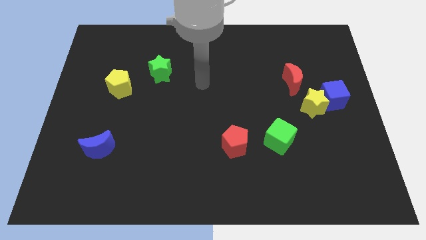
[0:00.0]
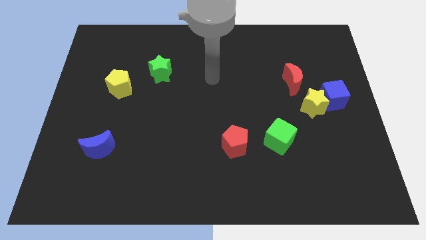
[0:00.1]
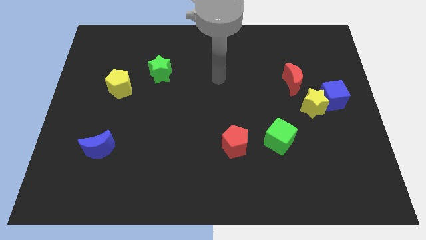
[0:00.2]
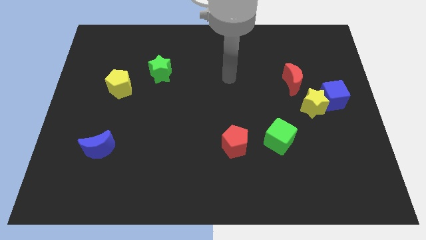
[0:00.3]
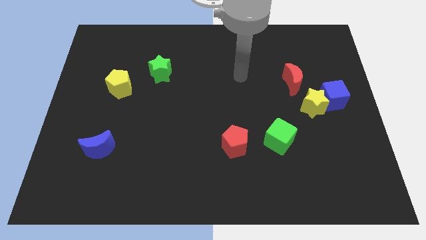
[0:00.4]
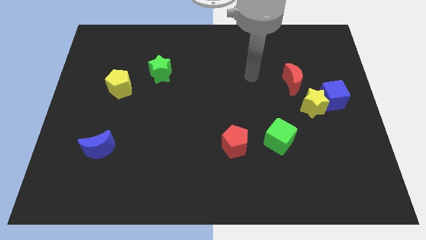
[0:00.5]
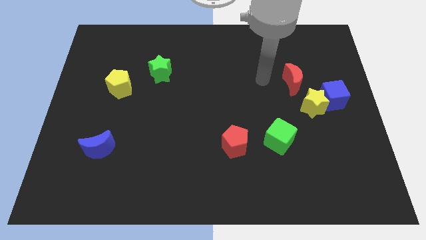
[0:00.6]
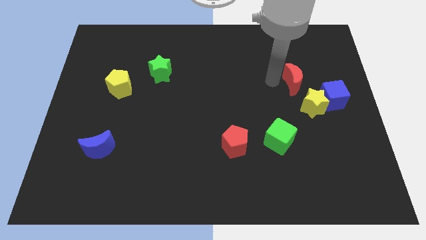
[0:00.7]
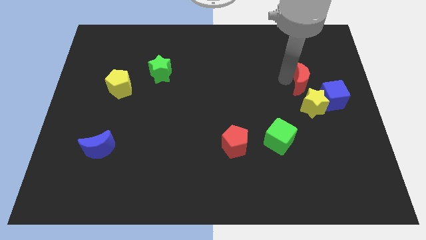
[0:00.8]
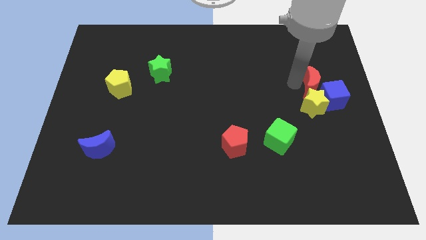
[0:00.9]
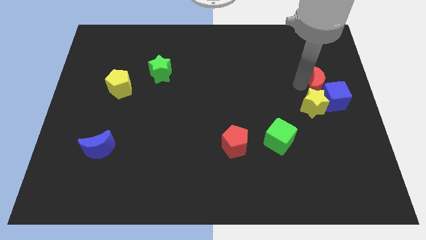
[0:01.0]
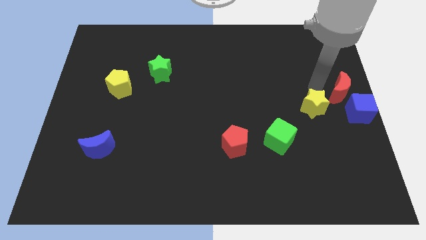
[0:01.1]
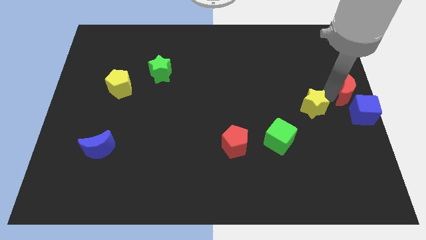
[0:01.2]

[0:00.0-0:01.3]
separate the yellow star from the blue cube and red moon

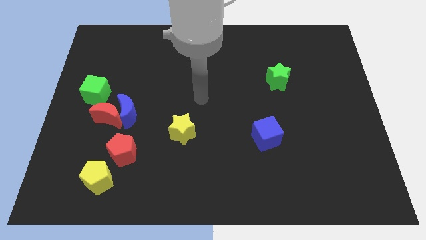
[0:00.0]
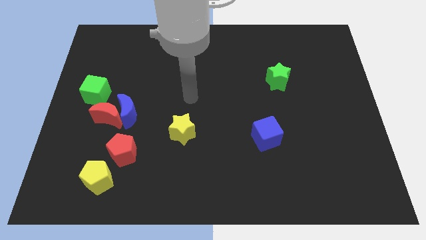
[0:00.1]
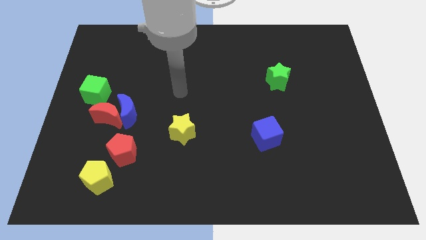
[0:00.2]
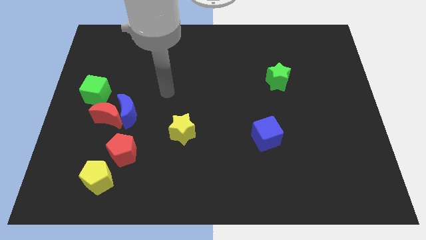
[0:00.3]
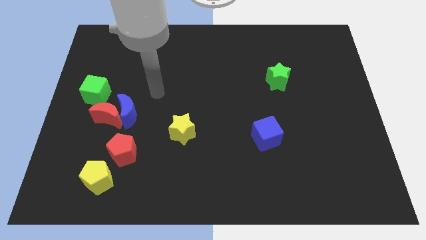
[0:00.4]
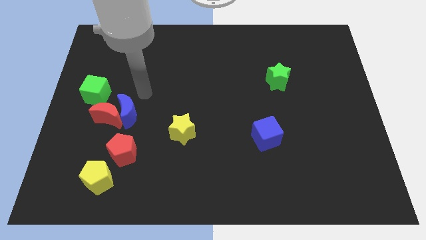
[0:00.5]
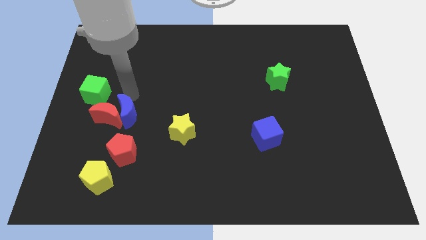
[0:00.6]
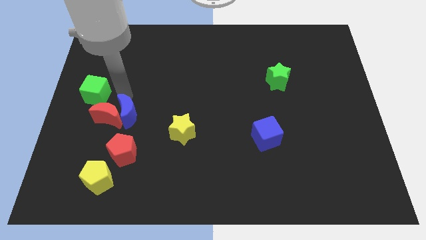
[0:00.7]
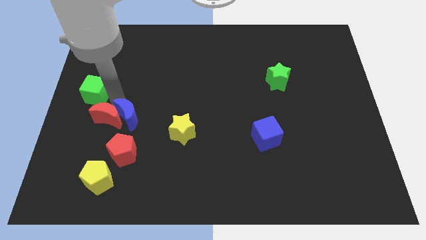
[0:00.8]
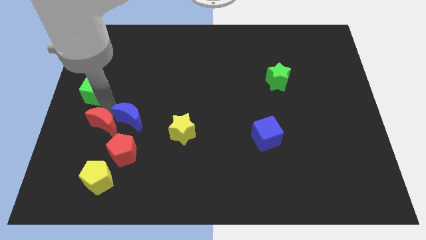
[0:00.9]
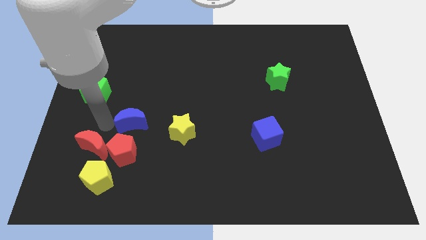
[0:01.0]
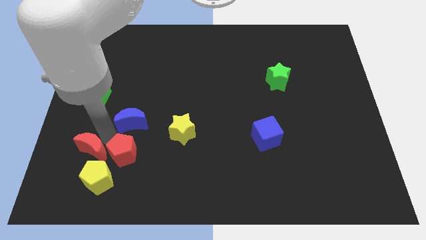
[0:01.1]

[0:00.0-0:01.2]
separate the blue moon from the red moon

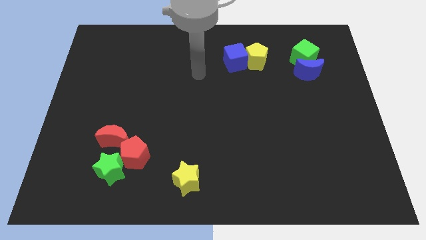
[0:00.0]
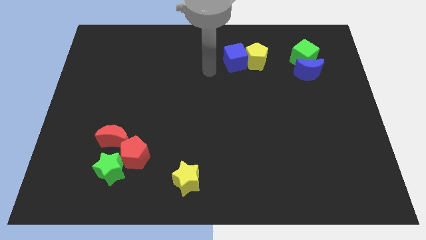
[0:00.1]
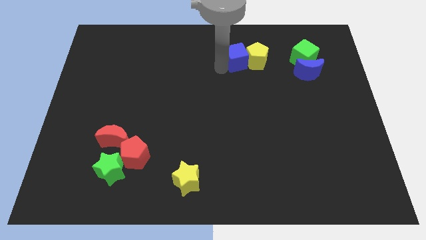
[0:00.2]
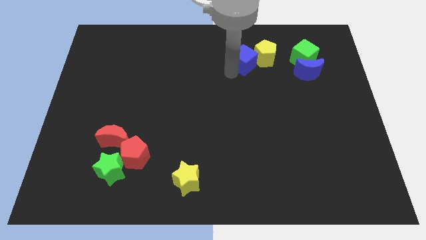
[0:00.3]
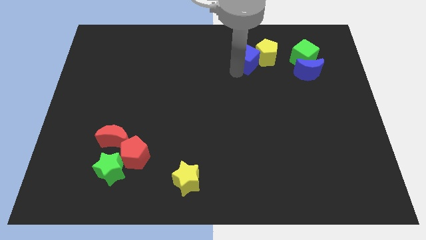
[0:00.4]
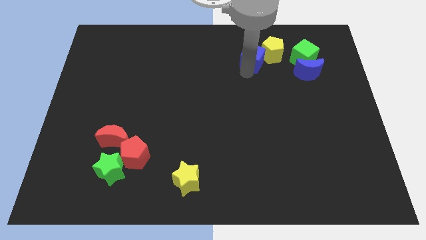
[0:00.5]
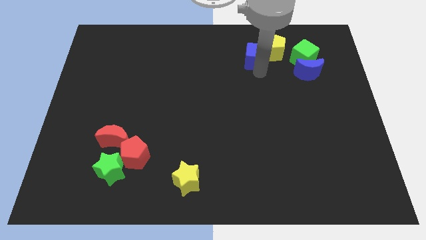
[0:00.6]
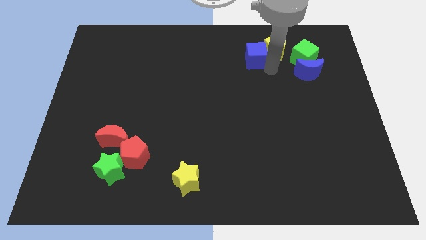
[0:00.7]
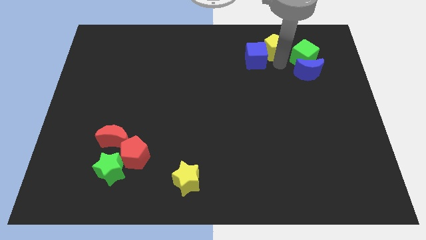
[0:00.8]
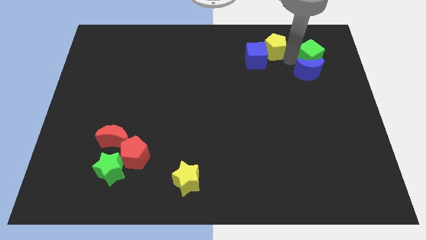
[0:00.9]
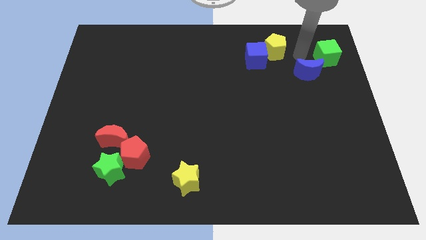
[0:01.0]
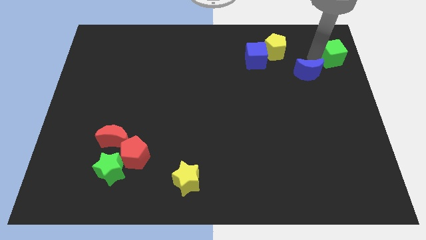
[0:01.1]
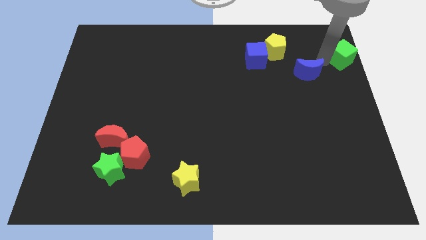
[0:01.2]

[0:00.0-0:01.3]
move the blue moon away from the green cube

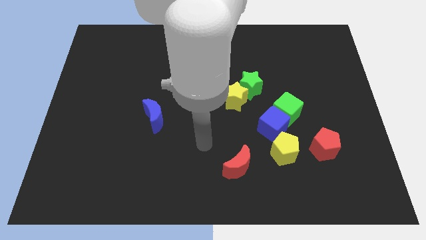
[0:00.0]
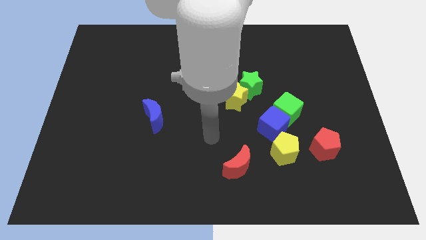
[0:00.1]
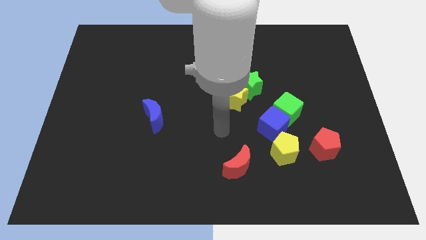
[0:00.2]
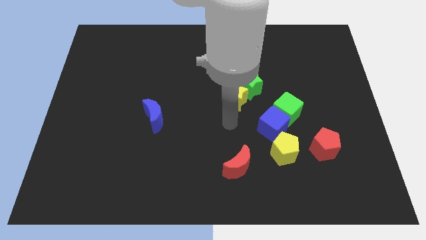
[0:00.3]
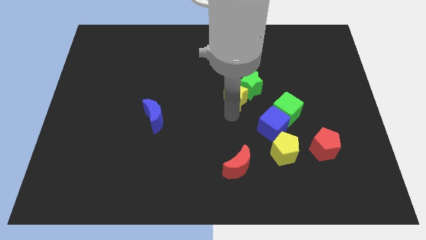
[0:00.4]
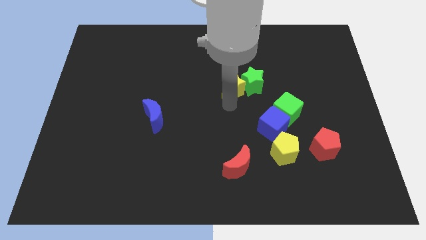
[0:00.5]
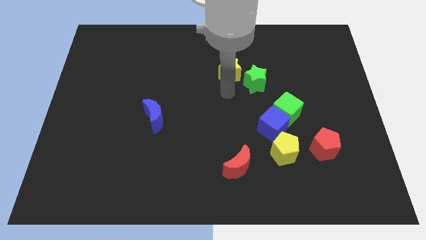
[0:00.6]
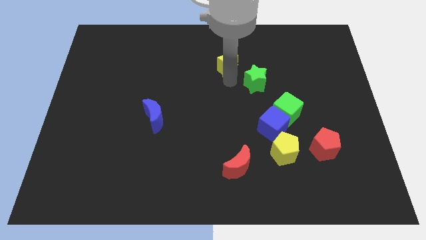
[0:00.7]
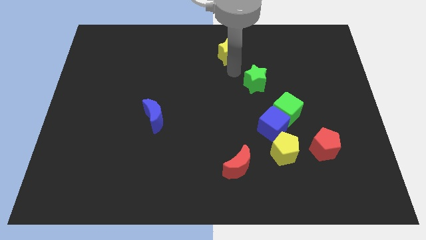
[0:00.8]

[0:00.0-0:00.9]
separate the green star from the yellow star

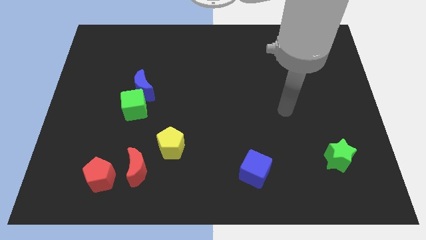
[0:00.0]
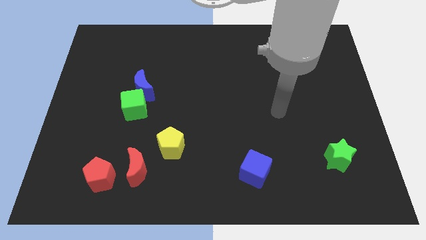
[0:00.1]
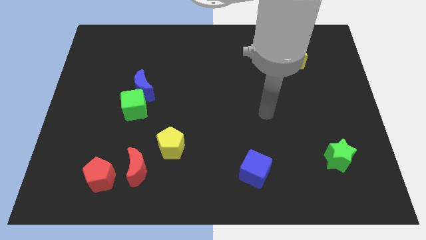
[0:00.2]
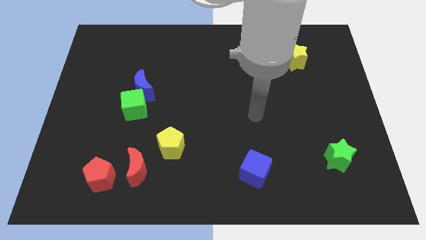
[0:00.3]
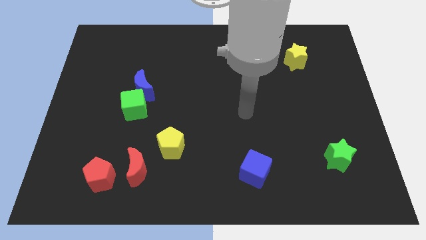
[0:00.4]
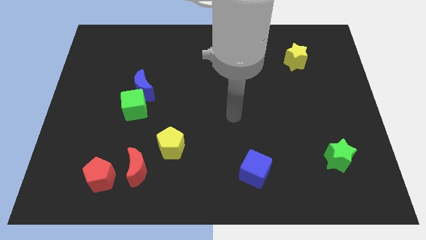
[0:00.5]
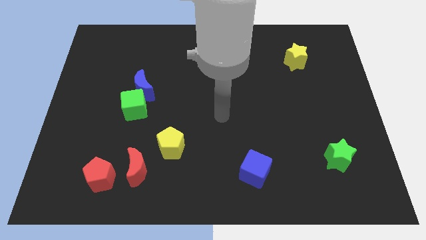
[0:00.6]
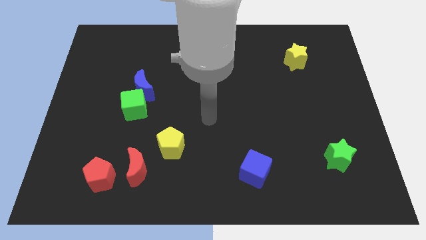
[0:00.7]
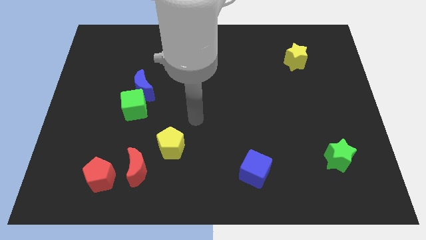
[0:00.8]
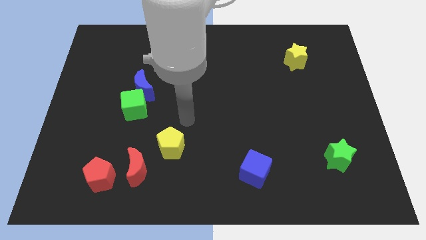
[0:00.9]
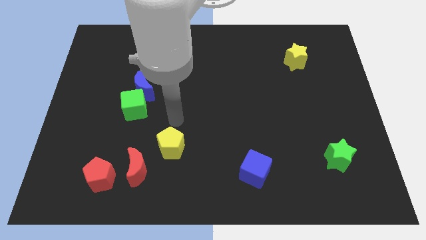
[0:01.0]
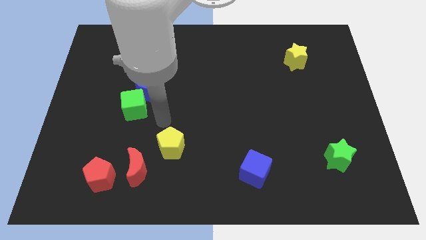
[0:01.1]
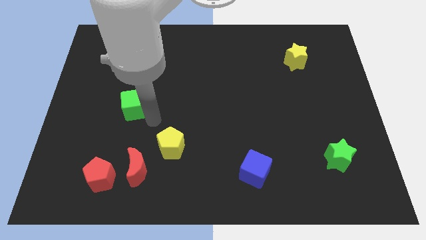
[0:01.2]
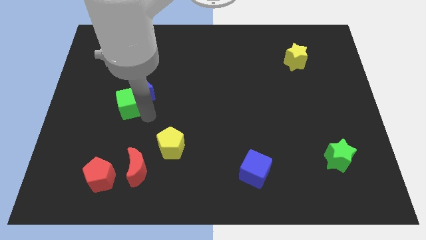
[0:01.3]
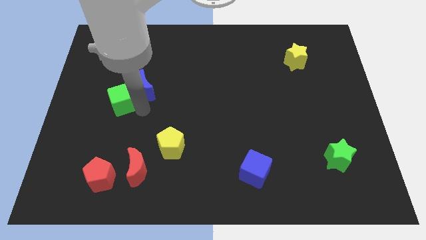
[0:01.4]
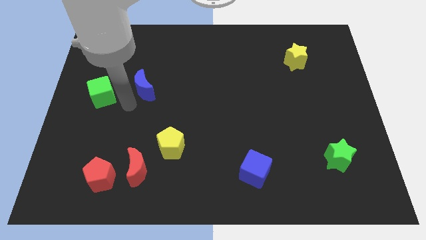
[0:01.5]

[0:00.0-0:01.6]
pull the blue moon apart from the green cube

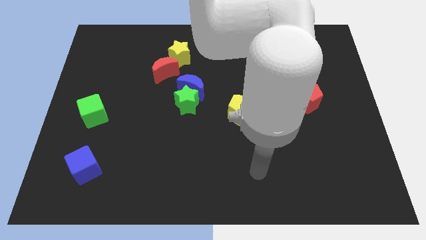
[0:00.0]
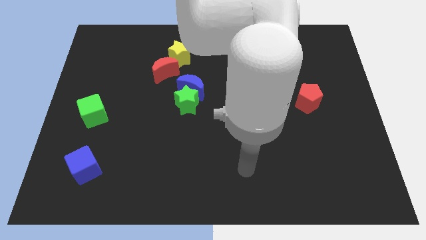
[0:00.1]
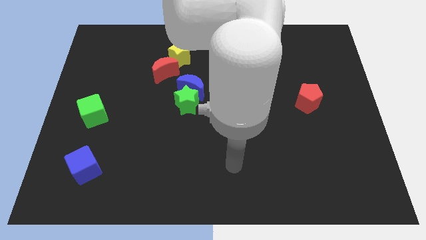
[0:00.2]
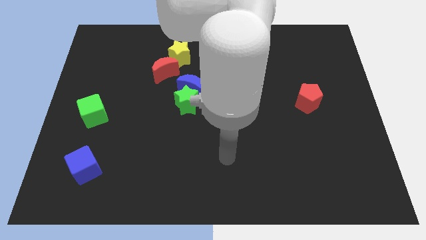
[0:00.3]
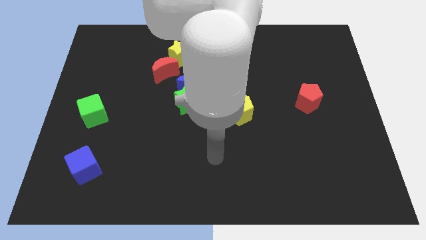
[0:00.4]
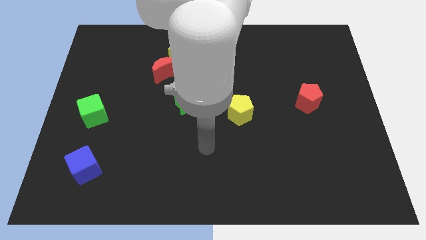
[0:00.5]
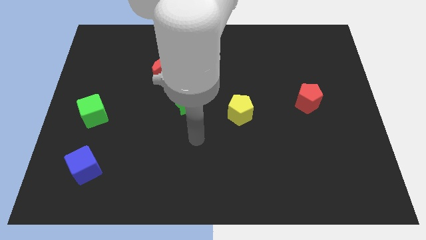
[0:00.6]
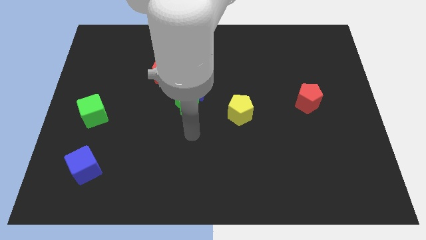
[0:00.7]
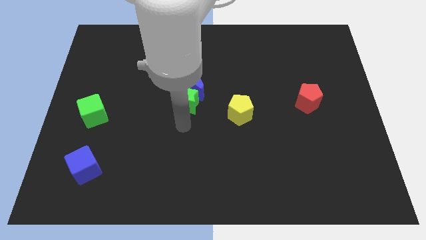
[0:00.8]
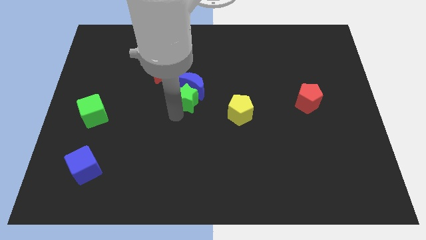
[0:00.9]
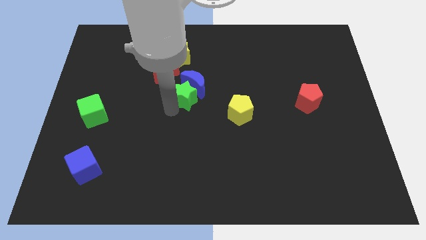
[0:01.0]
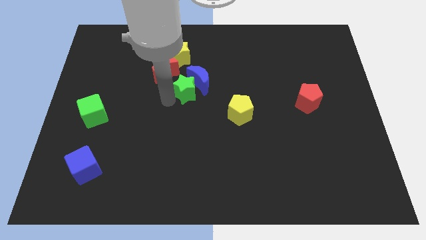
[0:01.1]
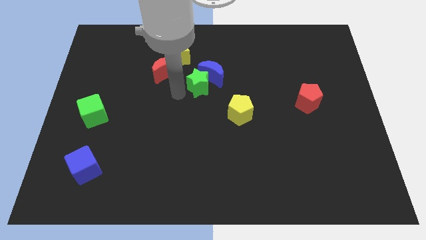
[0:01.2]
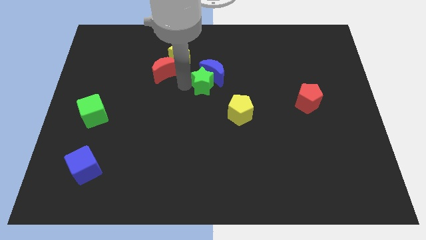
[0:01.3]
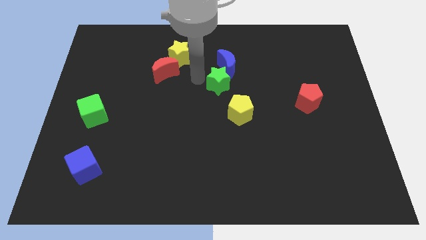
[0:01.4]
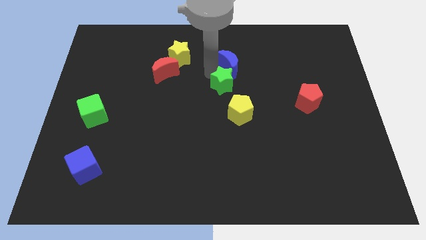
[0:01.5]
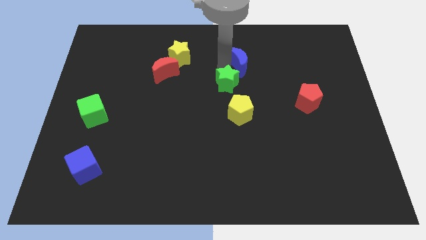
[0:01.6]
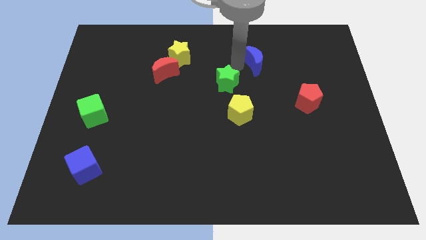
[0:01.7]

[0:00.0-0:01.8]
separate the green star from the blue moon

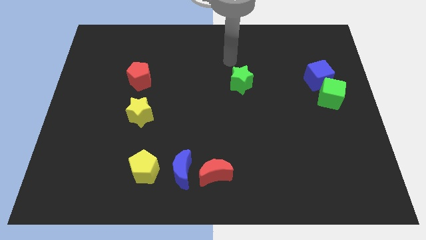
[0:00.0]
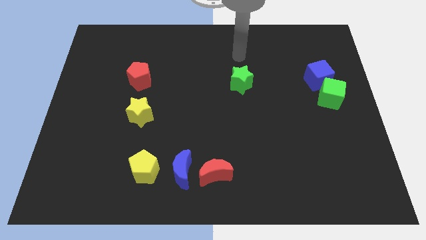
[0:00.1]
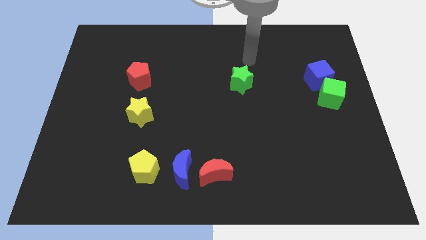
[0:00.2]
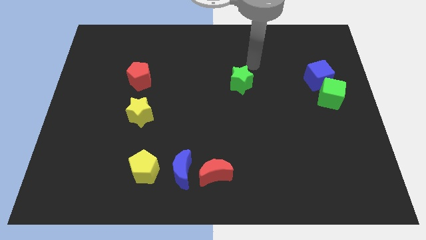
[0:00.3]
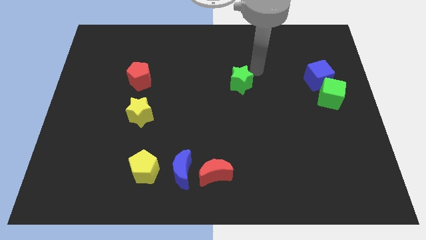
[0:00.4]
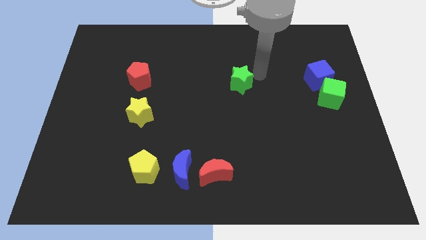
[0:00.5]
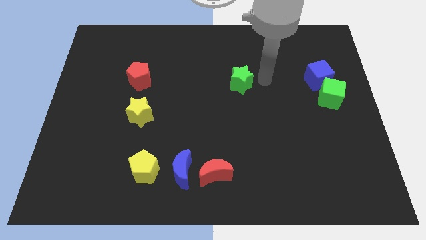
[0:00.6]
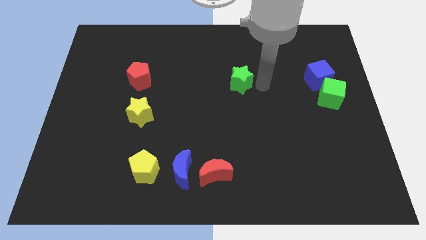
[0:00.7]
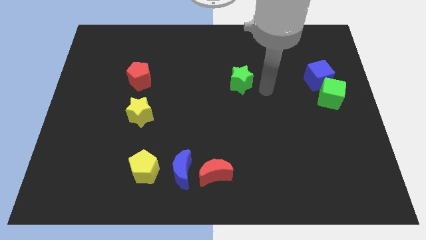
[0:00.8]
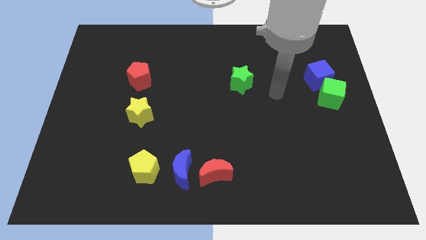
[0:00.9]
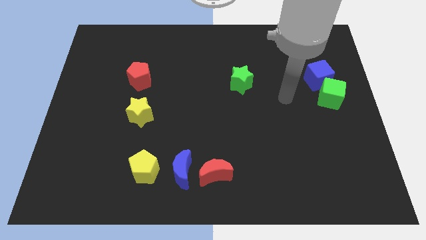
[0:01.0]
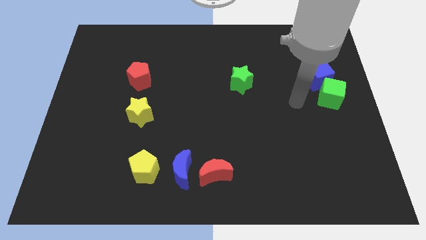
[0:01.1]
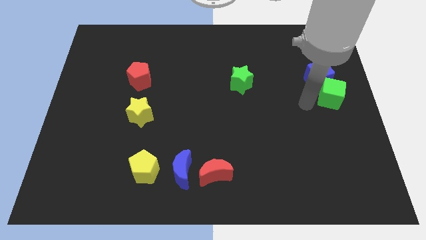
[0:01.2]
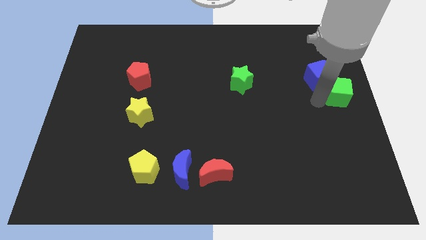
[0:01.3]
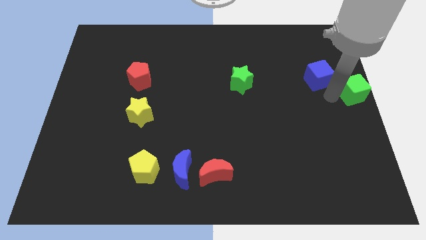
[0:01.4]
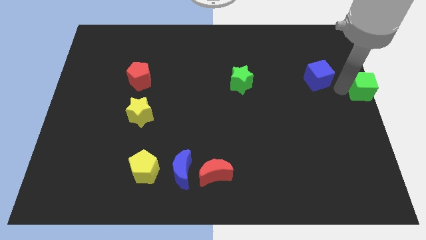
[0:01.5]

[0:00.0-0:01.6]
pull the blue cube apart from the green cube
